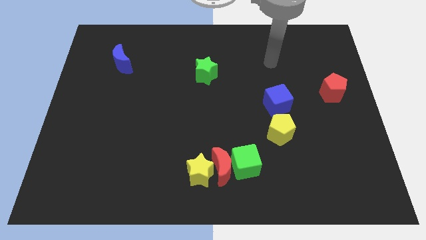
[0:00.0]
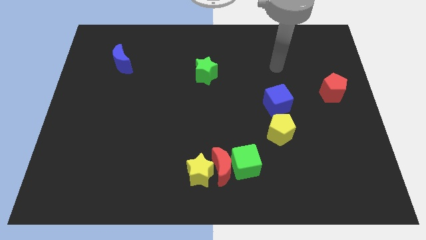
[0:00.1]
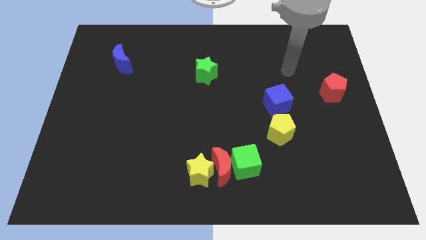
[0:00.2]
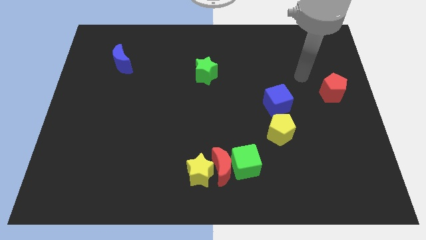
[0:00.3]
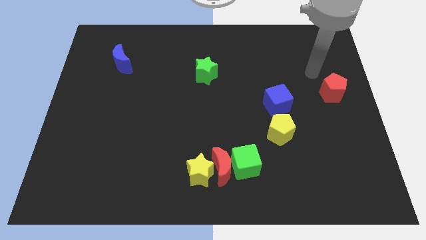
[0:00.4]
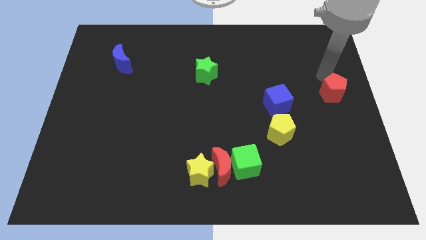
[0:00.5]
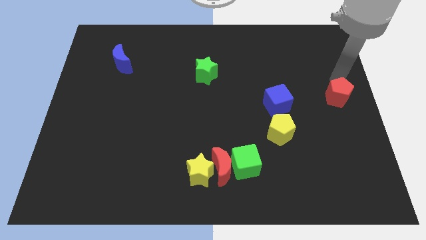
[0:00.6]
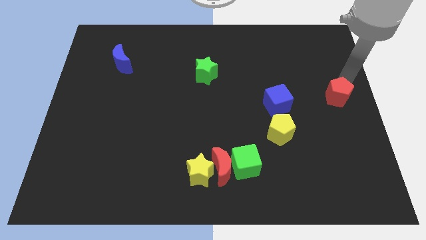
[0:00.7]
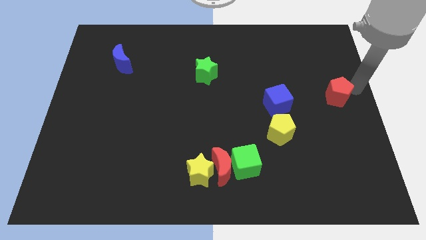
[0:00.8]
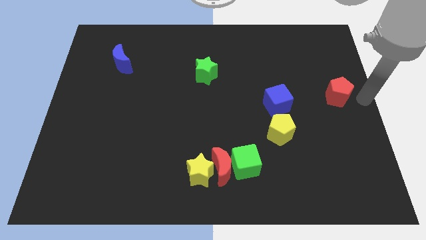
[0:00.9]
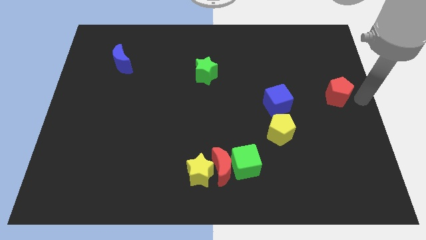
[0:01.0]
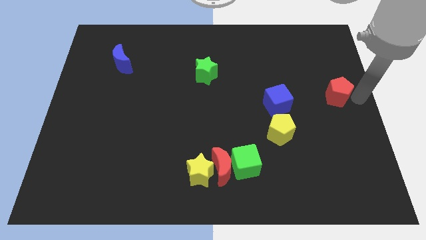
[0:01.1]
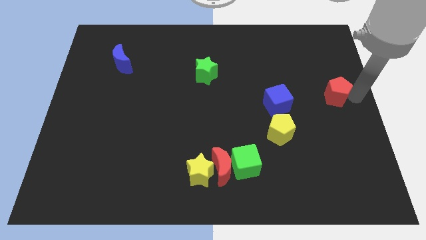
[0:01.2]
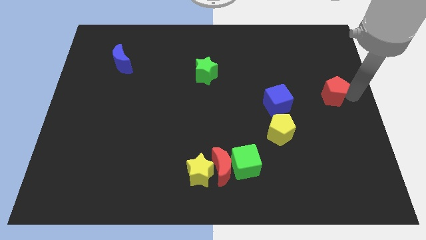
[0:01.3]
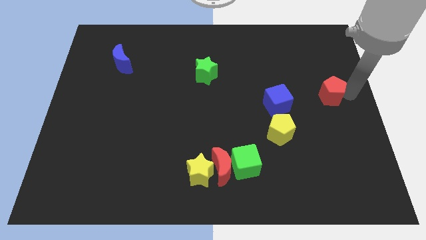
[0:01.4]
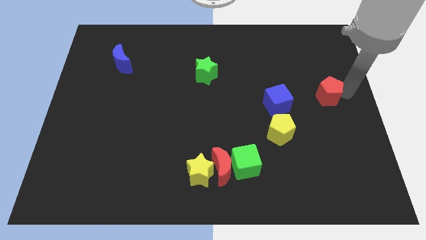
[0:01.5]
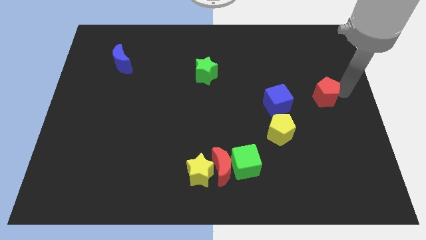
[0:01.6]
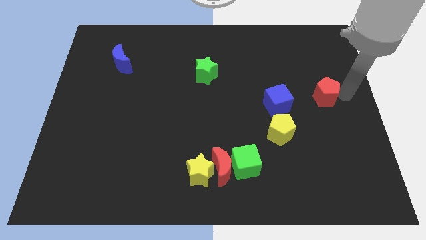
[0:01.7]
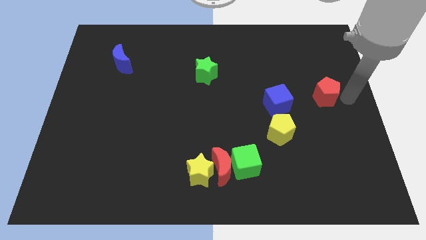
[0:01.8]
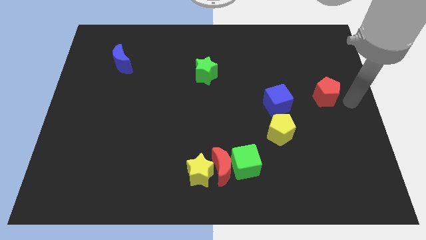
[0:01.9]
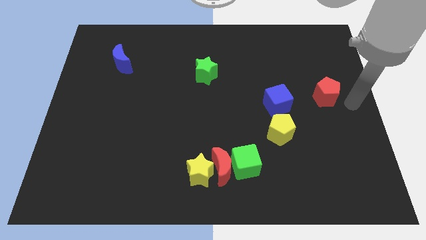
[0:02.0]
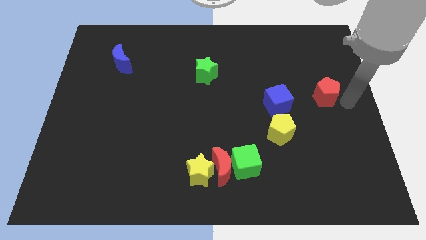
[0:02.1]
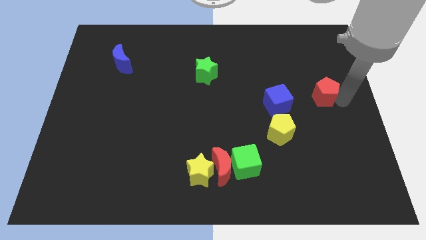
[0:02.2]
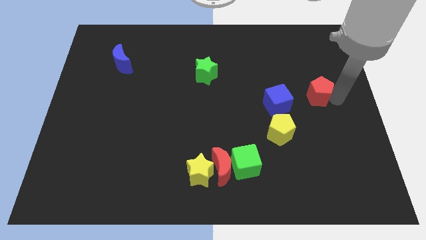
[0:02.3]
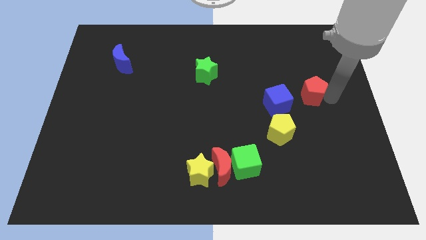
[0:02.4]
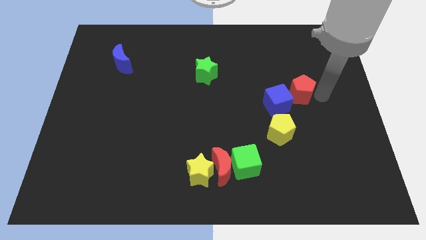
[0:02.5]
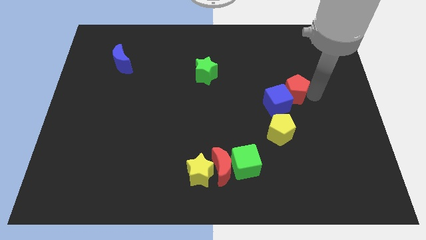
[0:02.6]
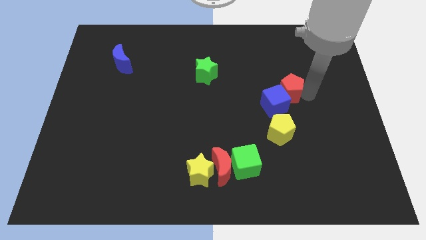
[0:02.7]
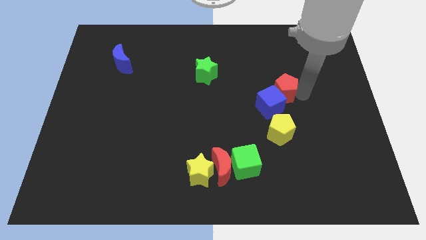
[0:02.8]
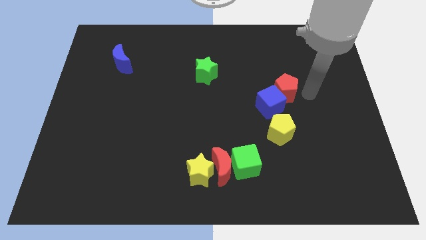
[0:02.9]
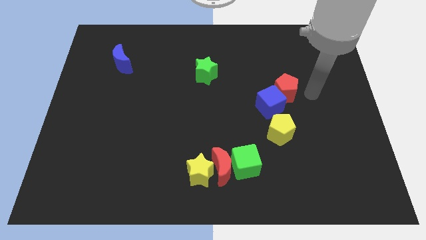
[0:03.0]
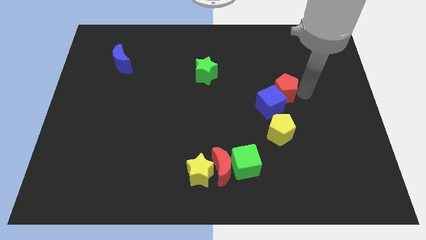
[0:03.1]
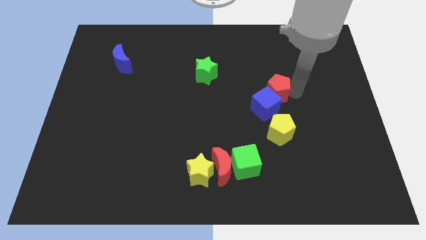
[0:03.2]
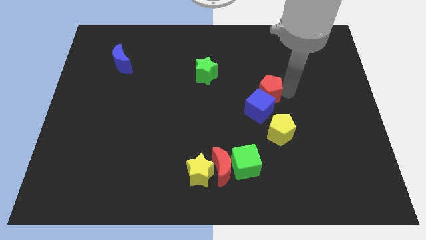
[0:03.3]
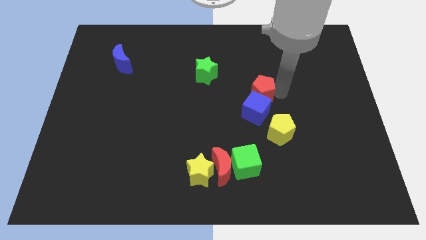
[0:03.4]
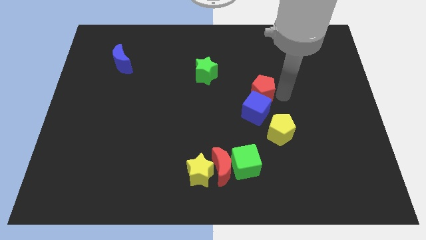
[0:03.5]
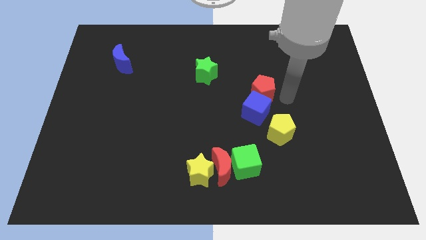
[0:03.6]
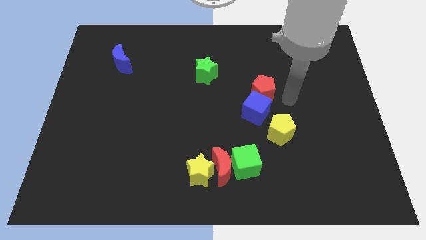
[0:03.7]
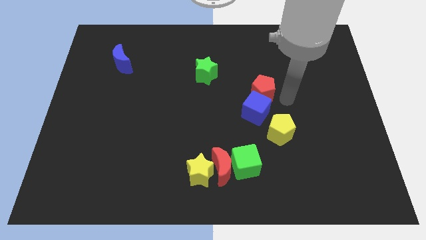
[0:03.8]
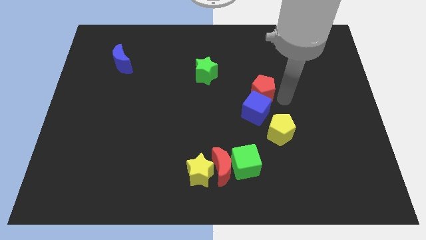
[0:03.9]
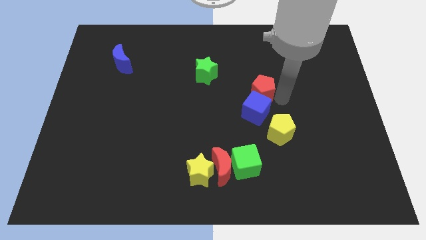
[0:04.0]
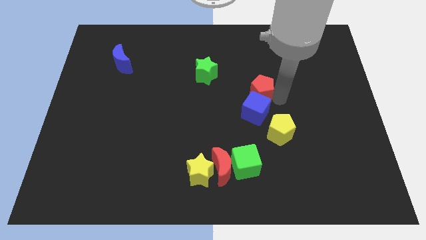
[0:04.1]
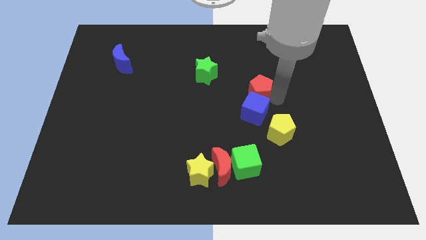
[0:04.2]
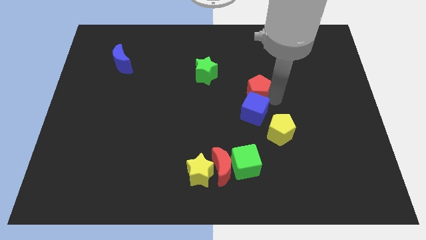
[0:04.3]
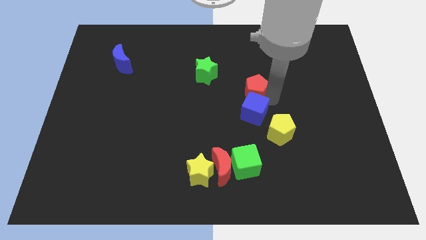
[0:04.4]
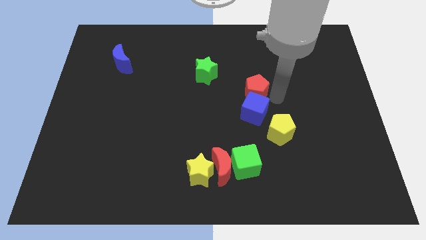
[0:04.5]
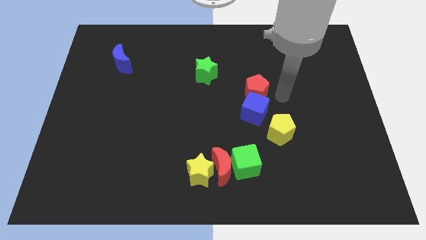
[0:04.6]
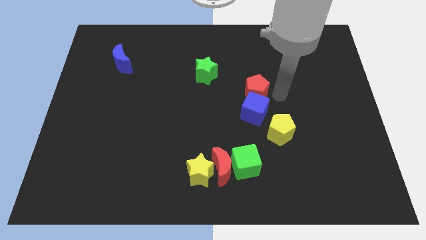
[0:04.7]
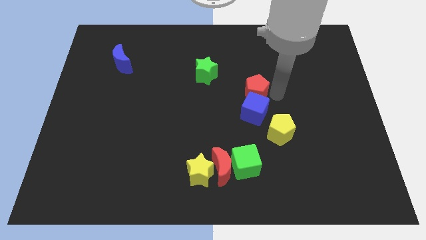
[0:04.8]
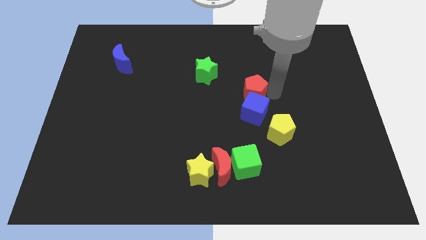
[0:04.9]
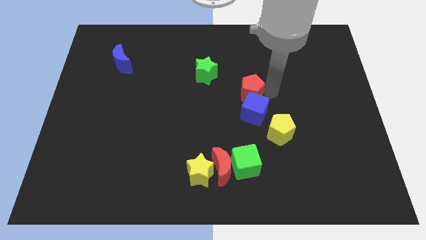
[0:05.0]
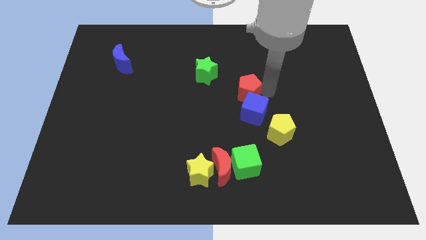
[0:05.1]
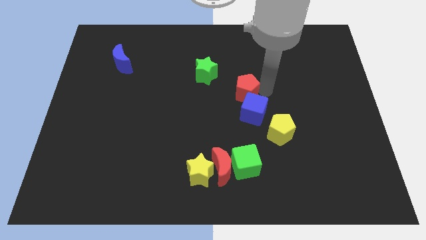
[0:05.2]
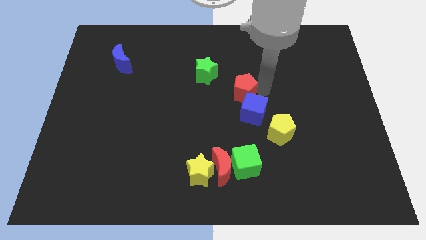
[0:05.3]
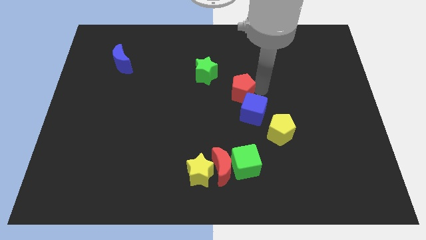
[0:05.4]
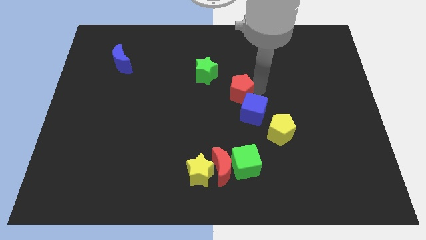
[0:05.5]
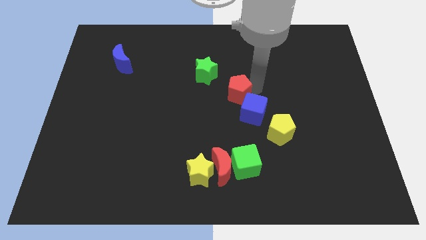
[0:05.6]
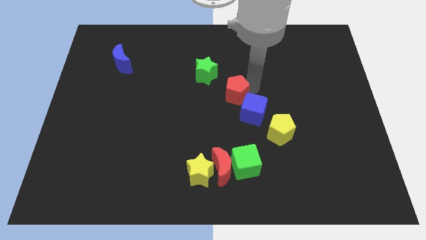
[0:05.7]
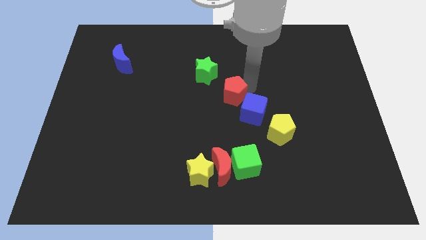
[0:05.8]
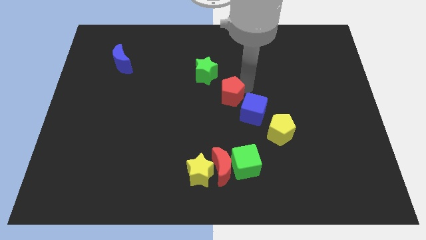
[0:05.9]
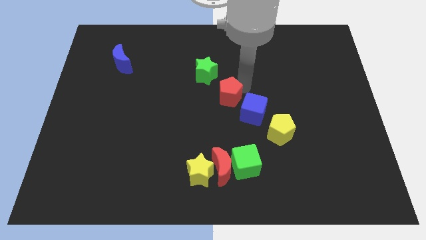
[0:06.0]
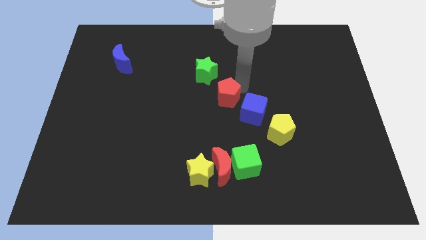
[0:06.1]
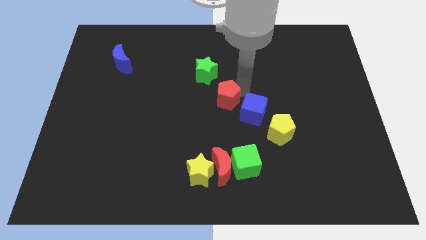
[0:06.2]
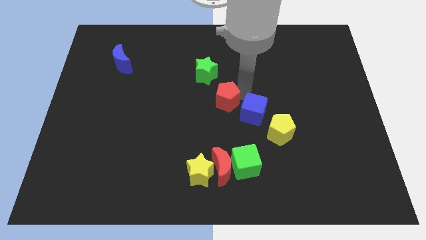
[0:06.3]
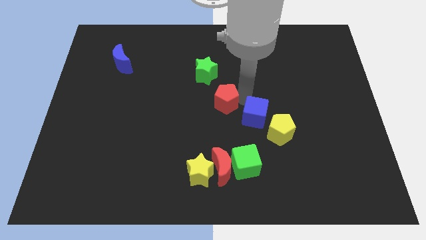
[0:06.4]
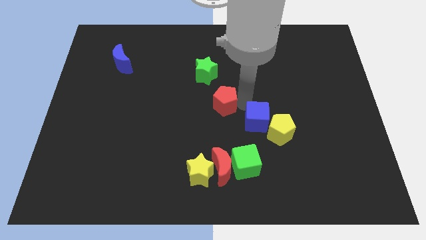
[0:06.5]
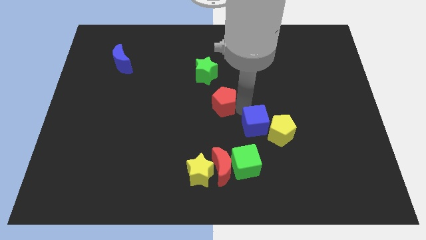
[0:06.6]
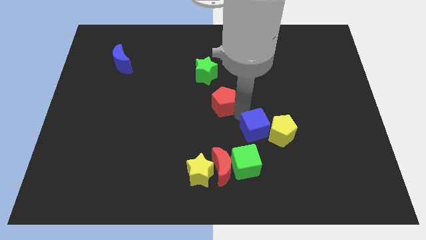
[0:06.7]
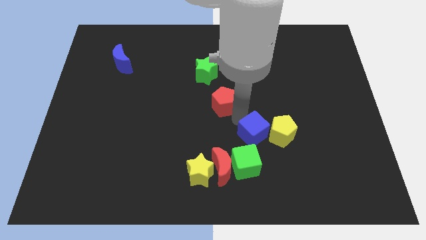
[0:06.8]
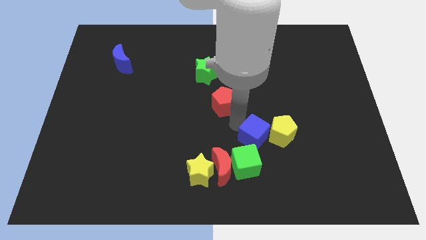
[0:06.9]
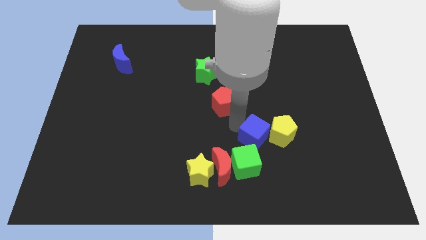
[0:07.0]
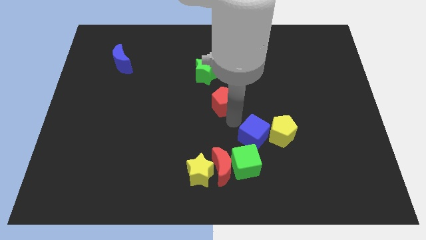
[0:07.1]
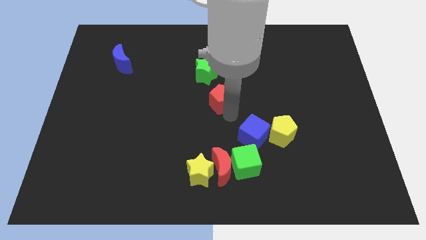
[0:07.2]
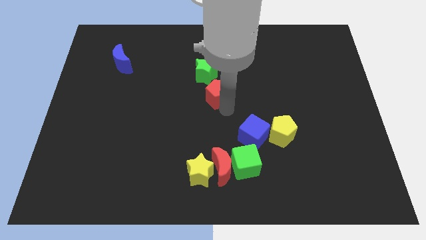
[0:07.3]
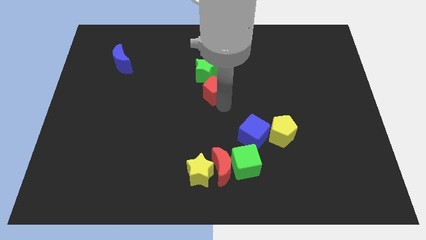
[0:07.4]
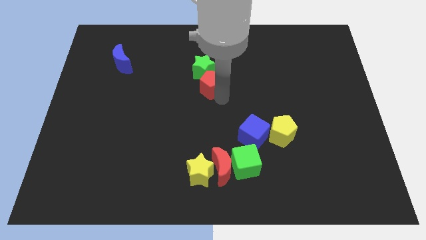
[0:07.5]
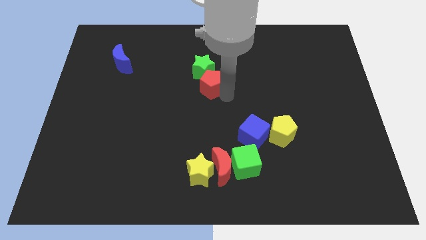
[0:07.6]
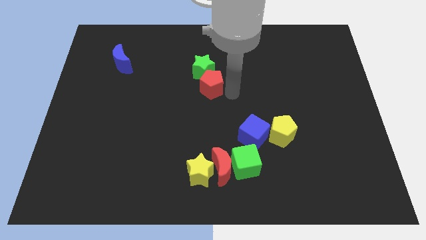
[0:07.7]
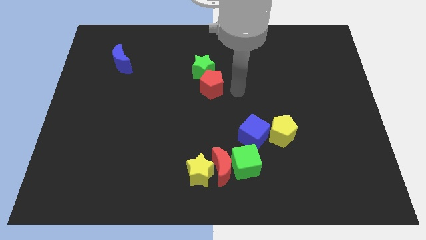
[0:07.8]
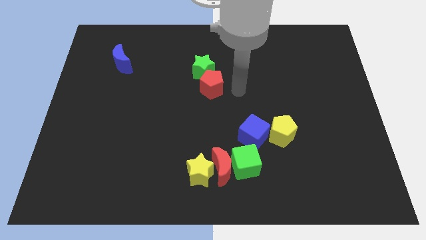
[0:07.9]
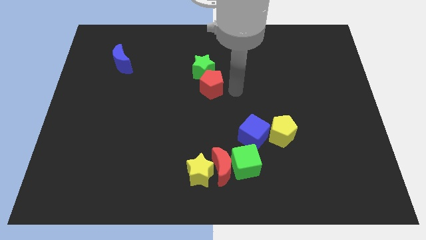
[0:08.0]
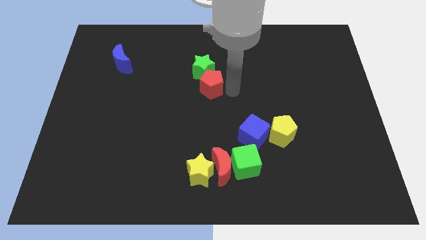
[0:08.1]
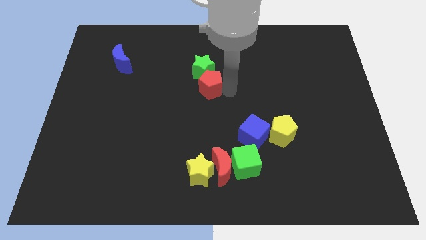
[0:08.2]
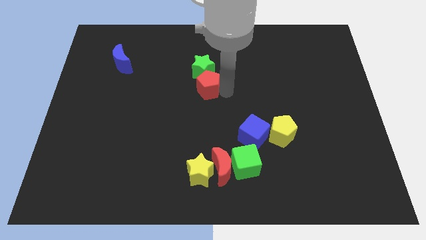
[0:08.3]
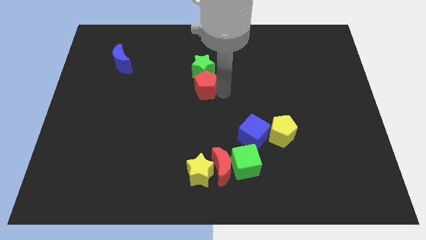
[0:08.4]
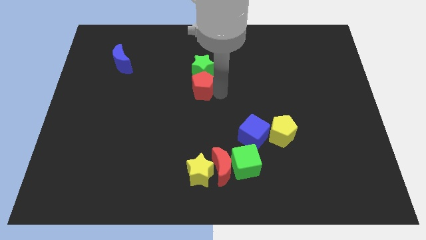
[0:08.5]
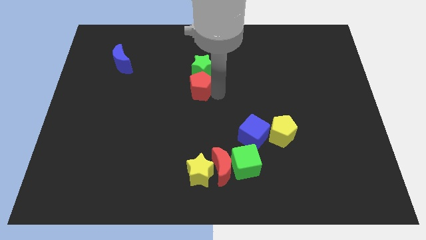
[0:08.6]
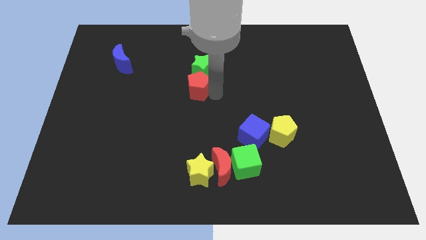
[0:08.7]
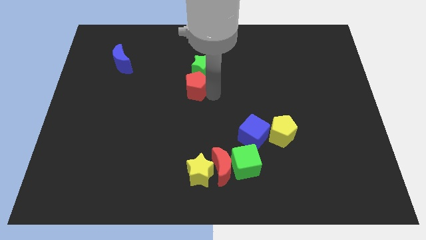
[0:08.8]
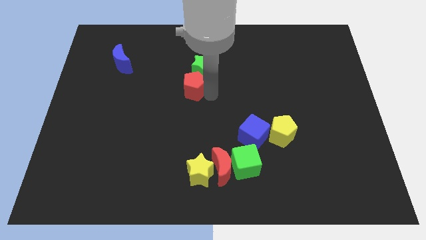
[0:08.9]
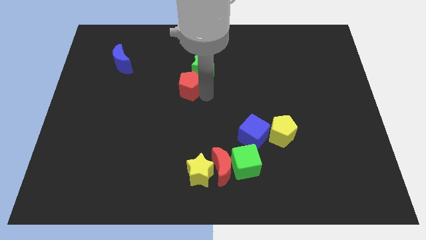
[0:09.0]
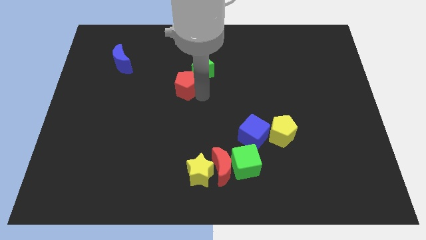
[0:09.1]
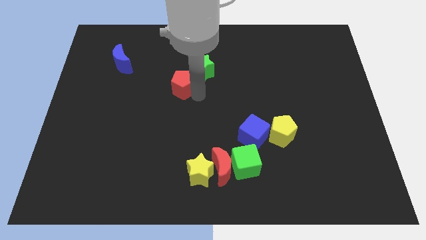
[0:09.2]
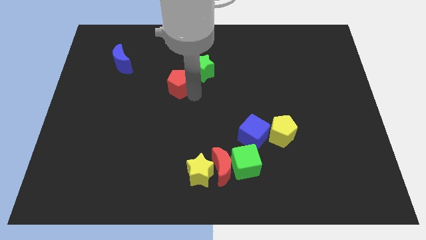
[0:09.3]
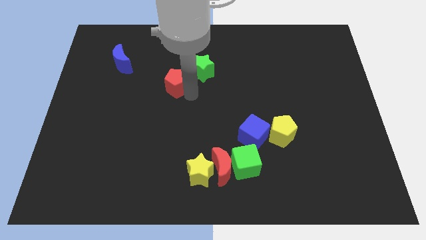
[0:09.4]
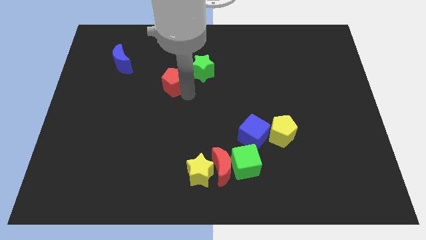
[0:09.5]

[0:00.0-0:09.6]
put the red pentagon to the left side of the green star
